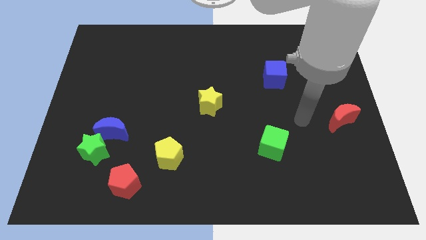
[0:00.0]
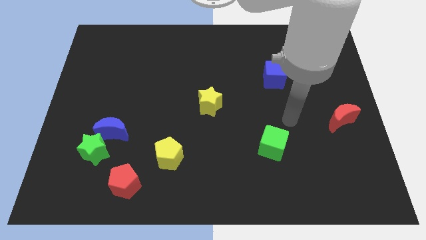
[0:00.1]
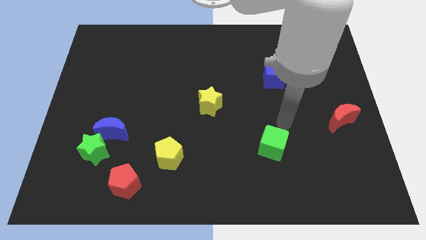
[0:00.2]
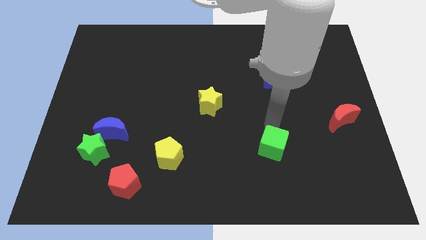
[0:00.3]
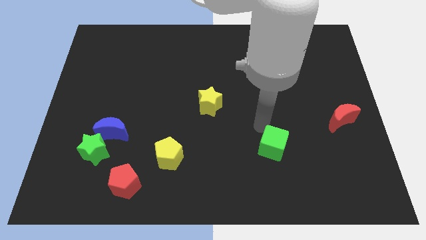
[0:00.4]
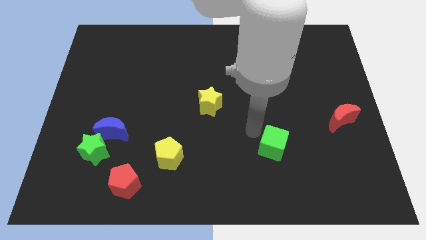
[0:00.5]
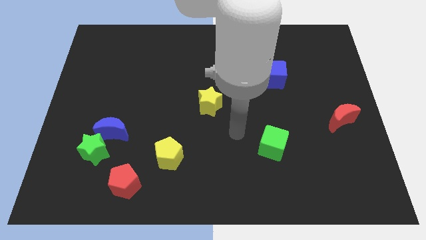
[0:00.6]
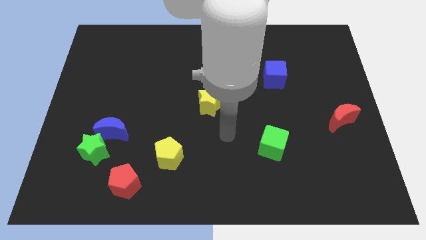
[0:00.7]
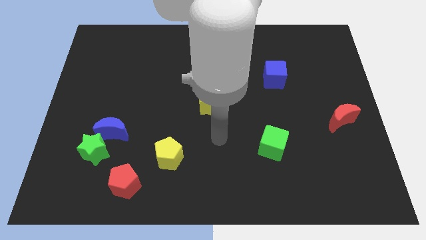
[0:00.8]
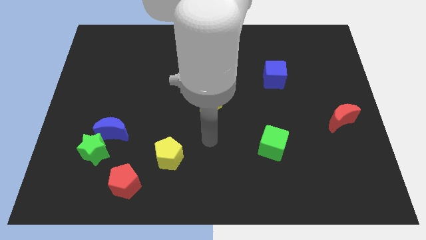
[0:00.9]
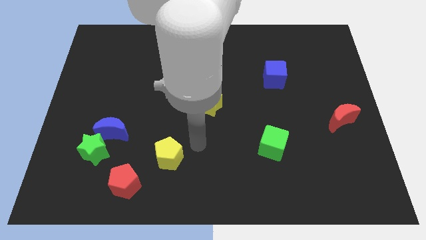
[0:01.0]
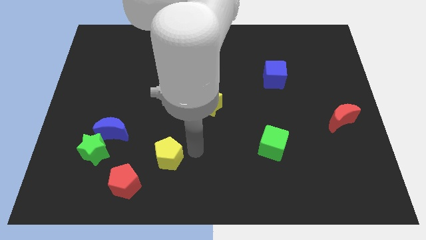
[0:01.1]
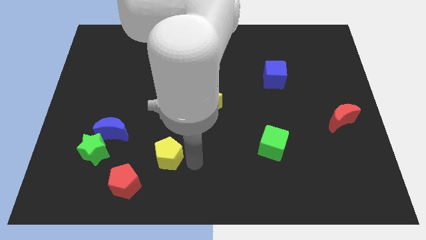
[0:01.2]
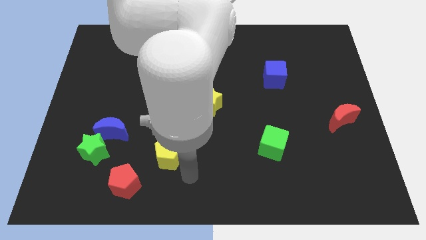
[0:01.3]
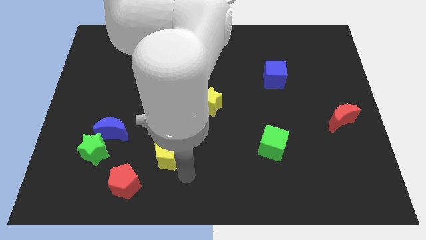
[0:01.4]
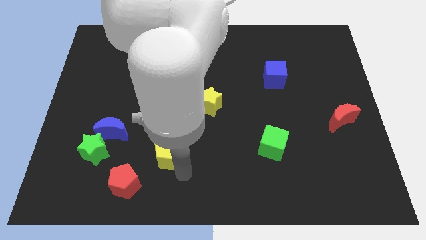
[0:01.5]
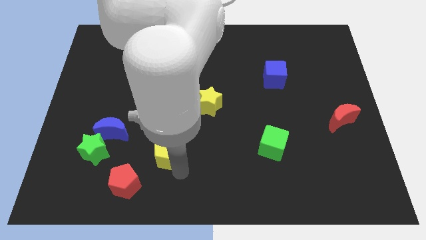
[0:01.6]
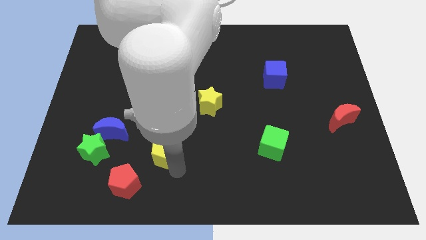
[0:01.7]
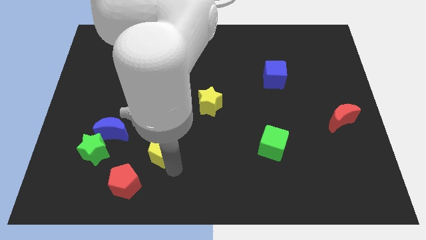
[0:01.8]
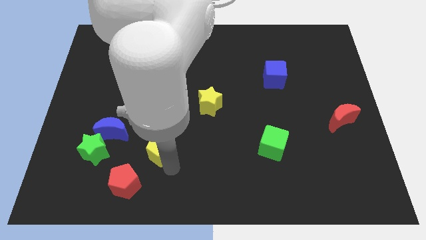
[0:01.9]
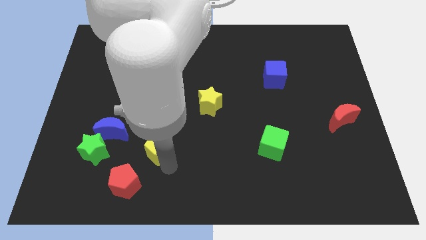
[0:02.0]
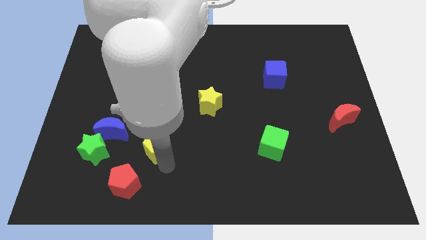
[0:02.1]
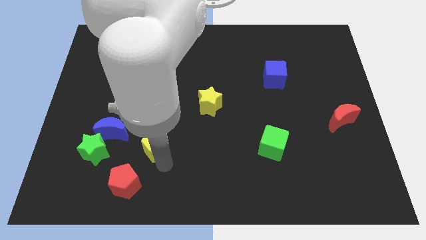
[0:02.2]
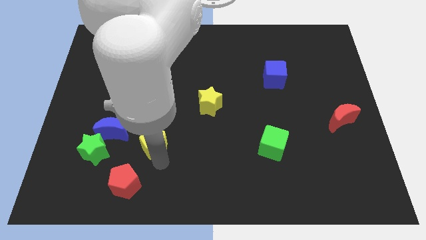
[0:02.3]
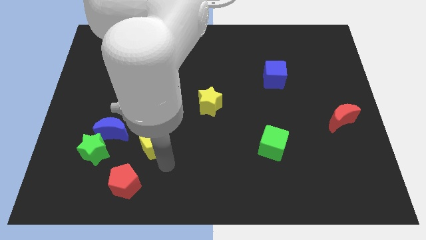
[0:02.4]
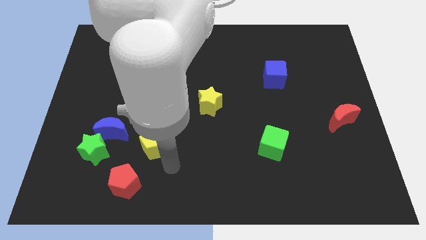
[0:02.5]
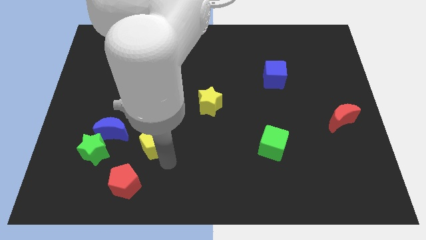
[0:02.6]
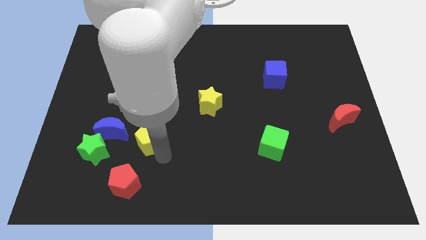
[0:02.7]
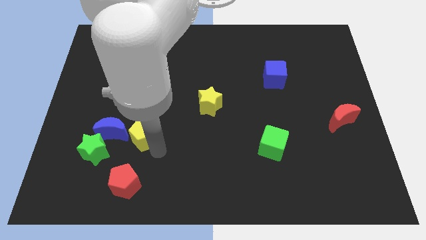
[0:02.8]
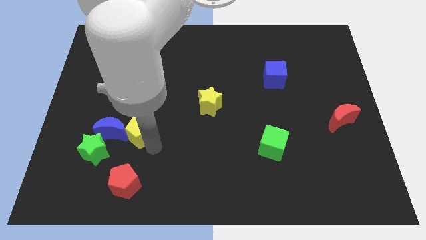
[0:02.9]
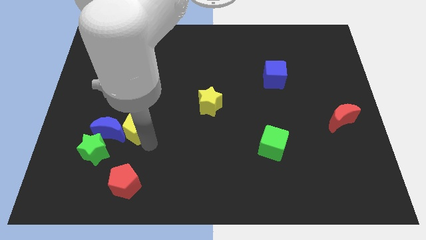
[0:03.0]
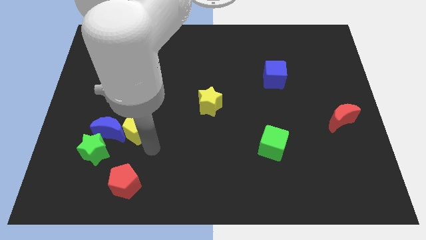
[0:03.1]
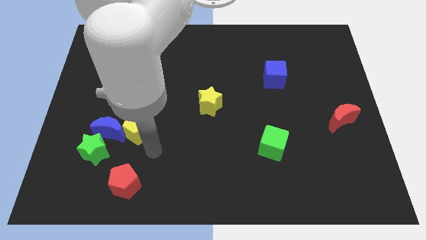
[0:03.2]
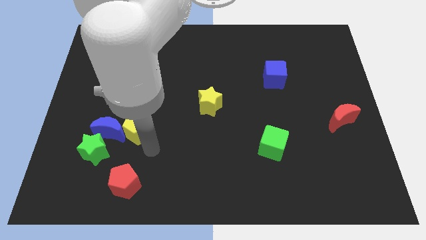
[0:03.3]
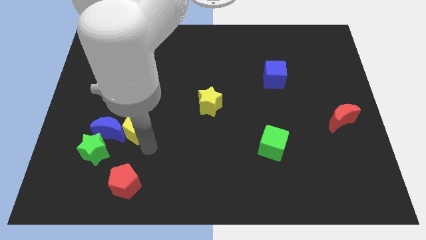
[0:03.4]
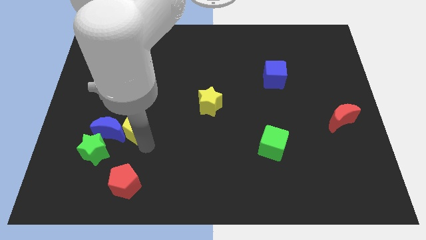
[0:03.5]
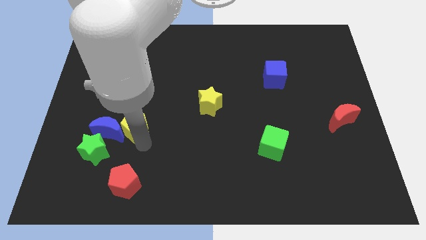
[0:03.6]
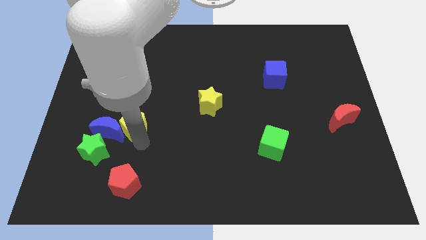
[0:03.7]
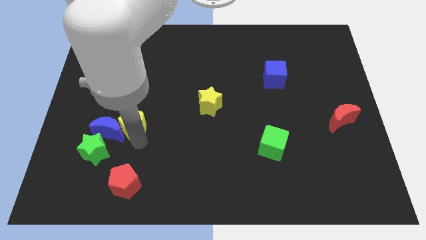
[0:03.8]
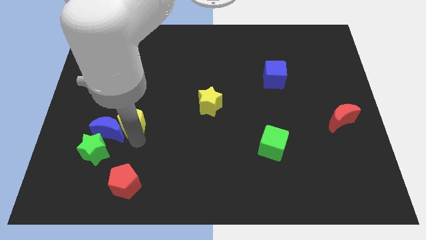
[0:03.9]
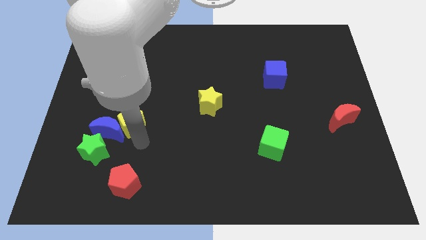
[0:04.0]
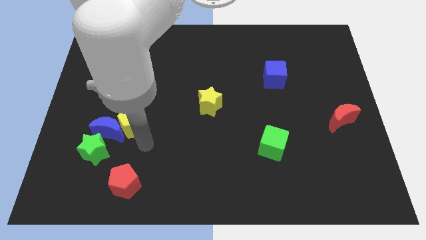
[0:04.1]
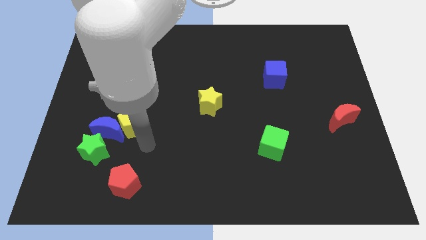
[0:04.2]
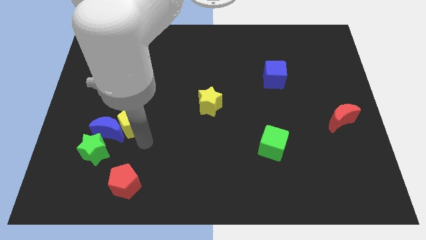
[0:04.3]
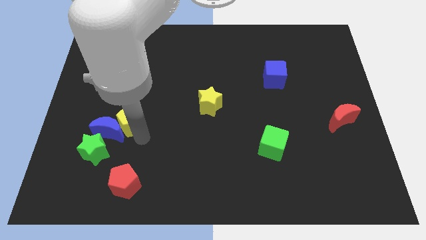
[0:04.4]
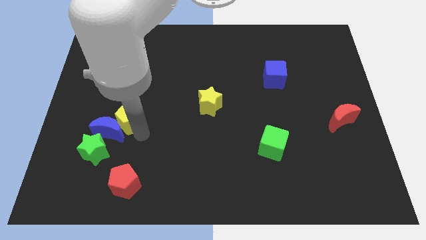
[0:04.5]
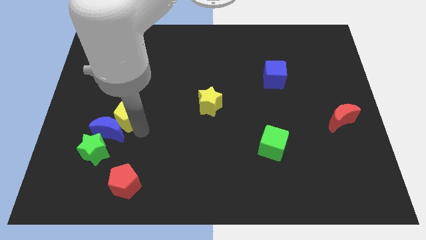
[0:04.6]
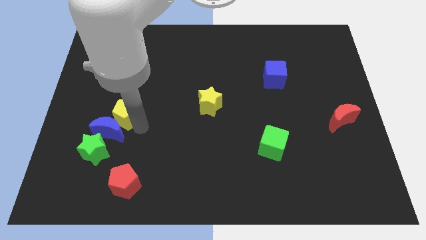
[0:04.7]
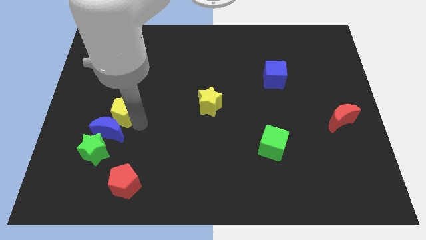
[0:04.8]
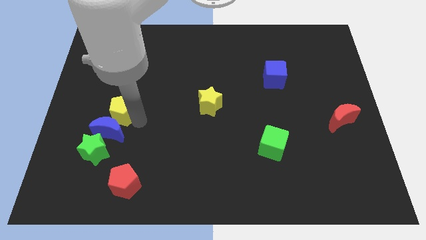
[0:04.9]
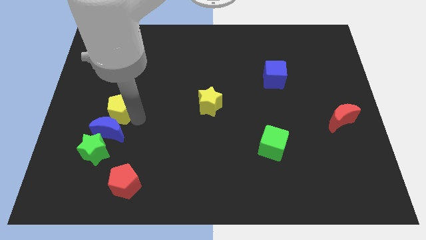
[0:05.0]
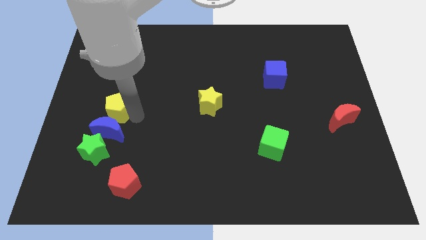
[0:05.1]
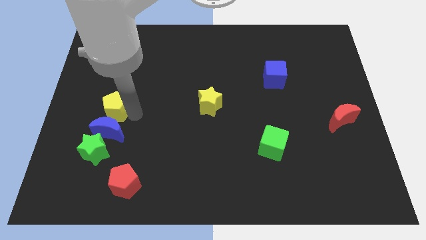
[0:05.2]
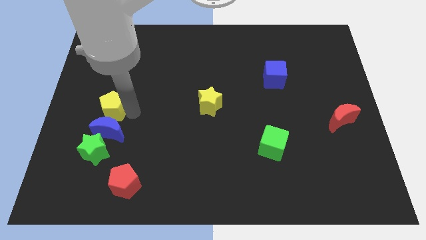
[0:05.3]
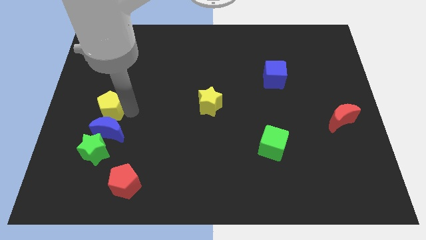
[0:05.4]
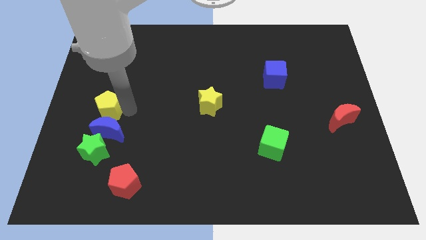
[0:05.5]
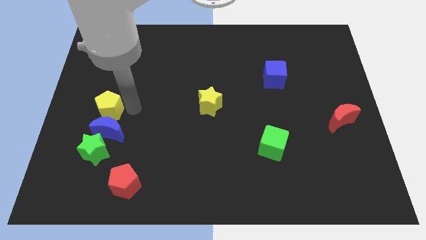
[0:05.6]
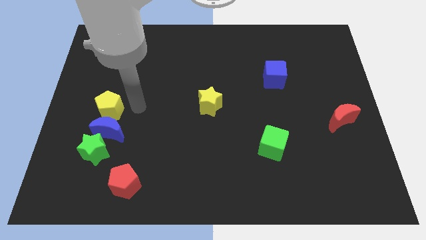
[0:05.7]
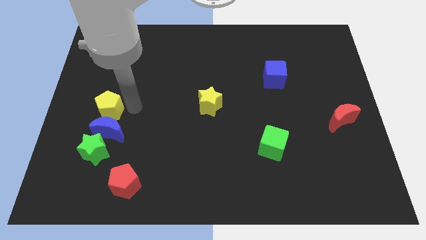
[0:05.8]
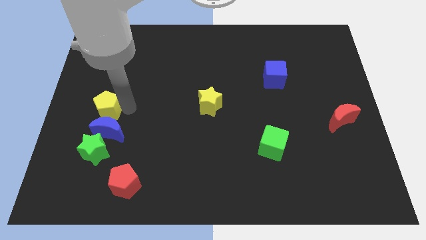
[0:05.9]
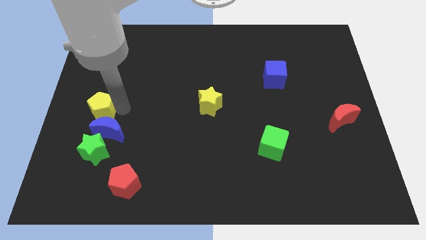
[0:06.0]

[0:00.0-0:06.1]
slide the yellow pentagon to the center left
